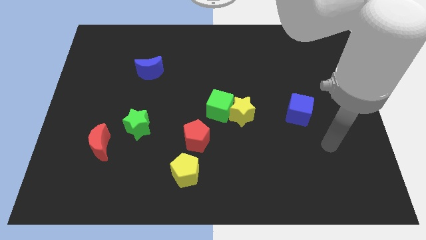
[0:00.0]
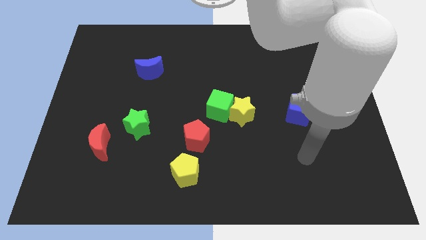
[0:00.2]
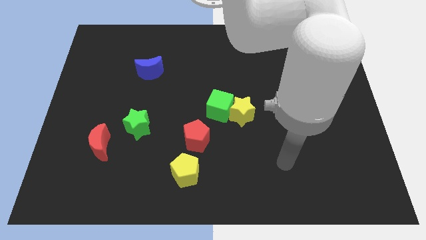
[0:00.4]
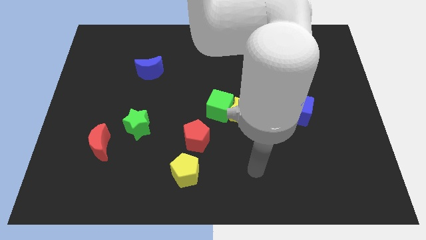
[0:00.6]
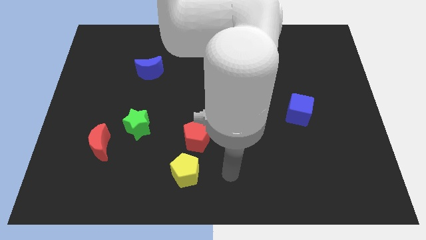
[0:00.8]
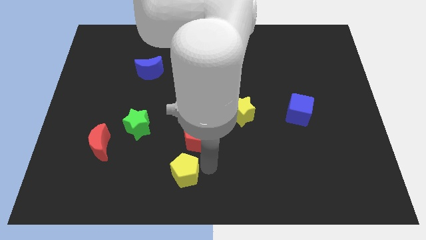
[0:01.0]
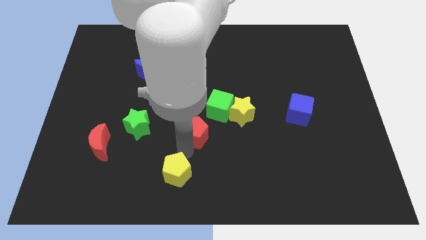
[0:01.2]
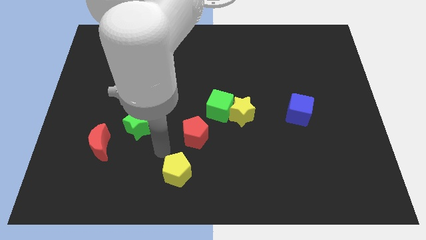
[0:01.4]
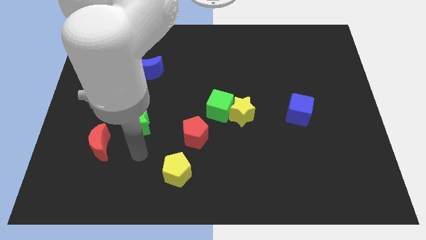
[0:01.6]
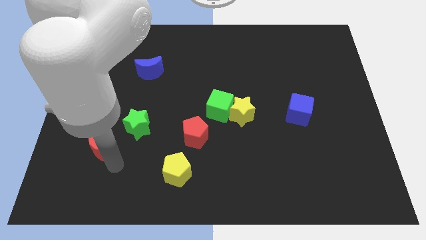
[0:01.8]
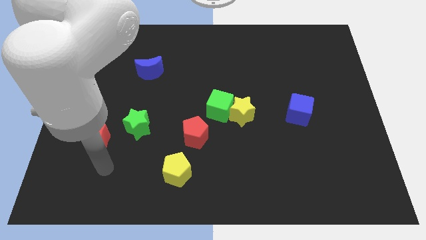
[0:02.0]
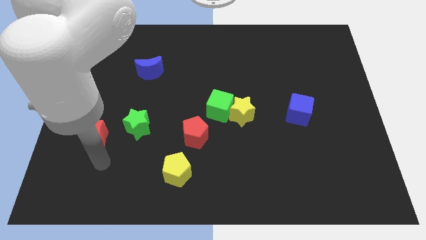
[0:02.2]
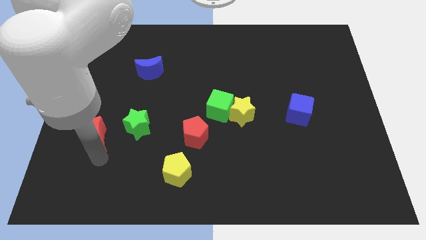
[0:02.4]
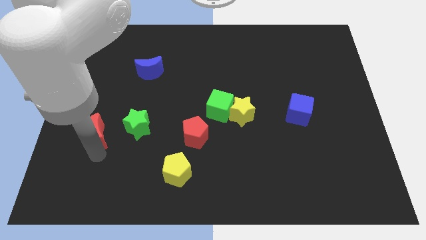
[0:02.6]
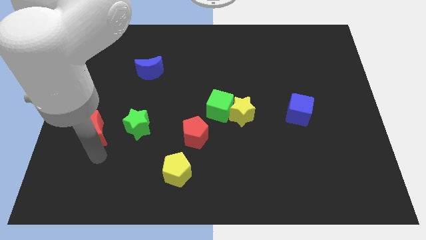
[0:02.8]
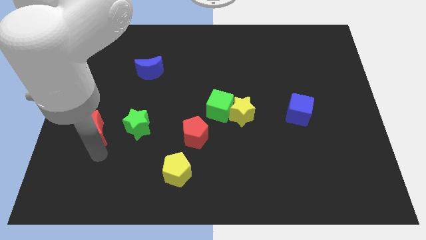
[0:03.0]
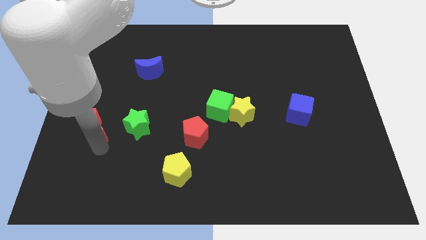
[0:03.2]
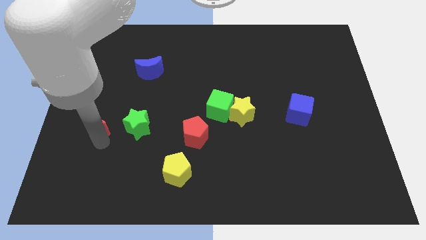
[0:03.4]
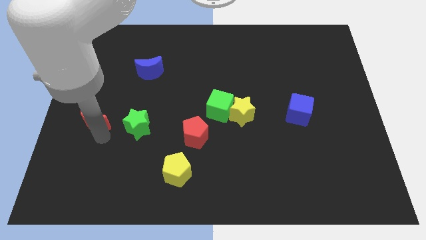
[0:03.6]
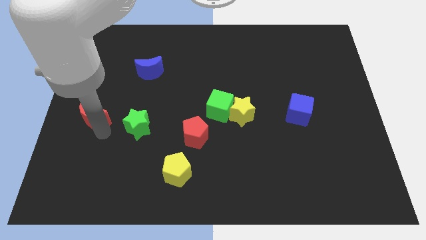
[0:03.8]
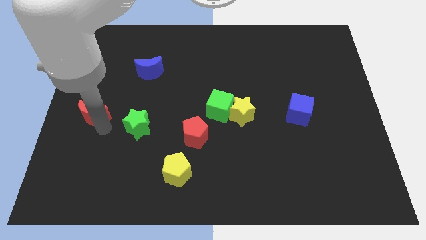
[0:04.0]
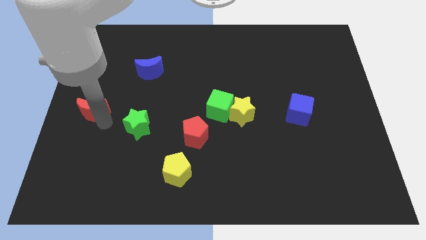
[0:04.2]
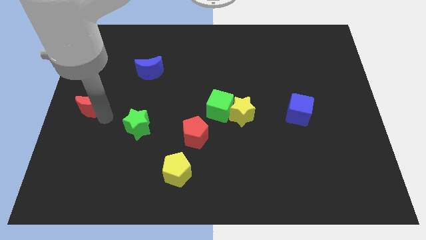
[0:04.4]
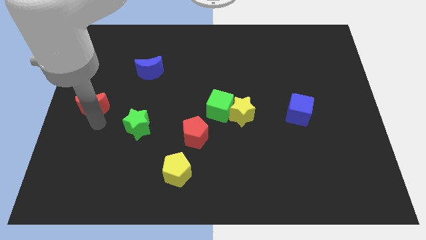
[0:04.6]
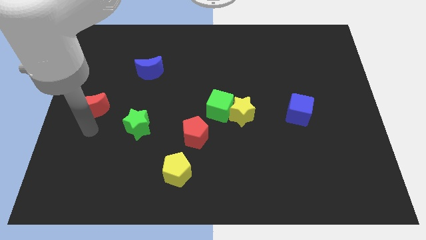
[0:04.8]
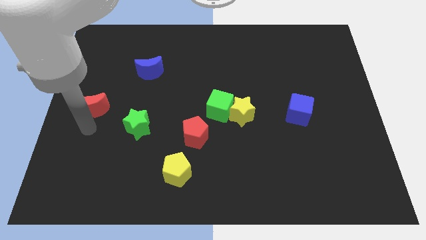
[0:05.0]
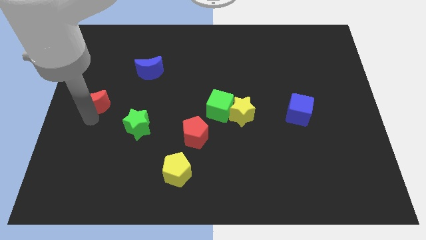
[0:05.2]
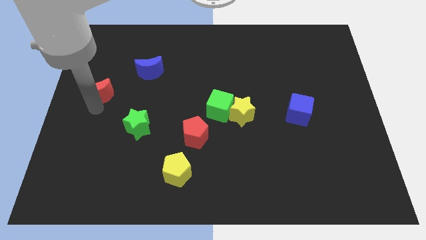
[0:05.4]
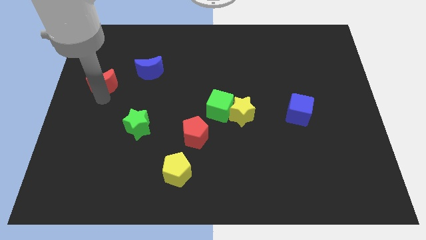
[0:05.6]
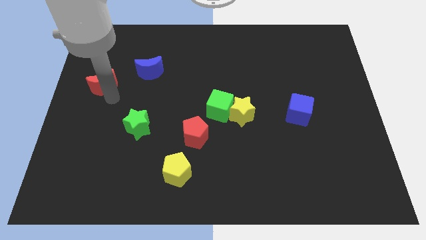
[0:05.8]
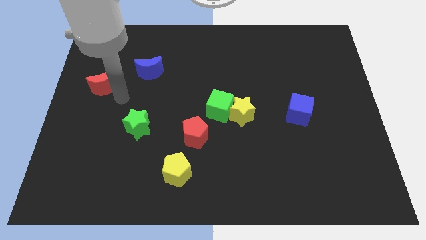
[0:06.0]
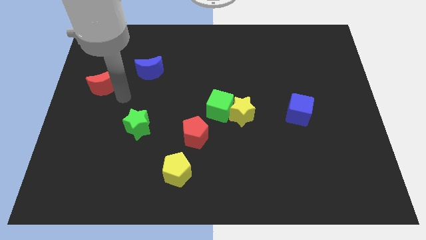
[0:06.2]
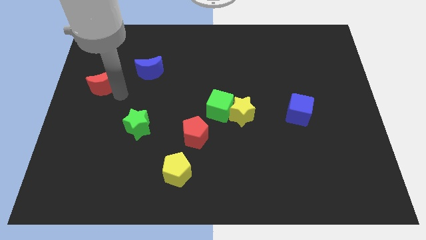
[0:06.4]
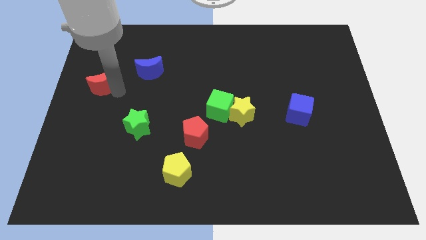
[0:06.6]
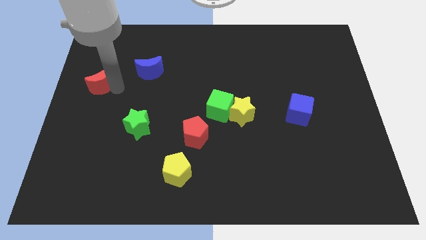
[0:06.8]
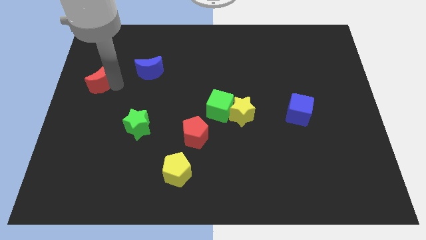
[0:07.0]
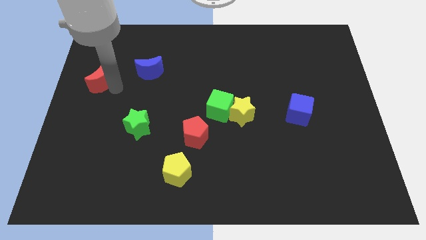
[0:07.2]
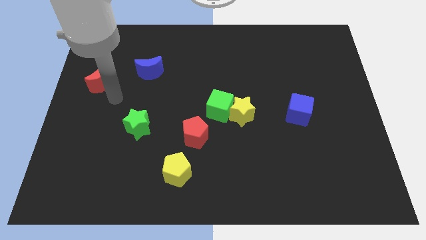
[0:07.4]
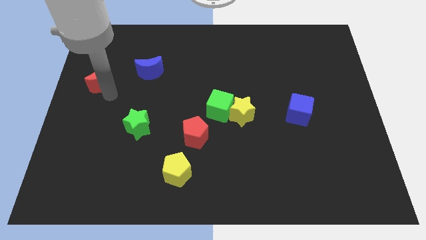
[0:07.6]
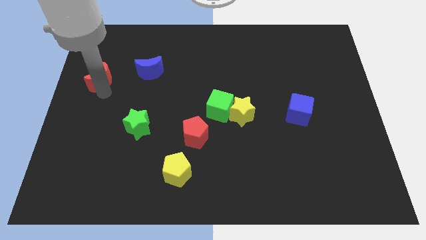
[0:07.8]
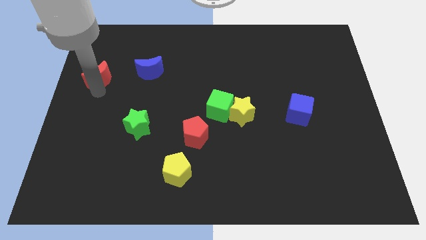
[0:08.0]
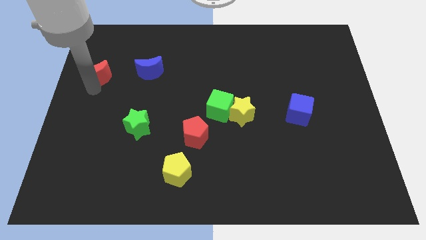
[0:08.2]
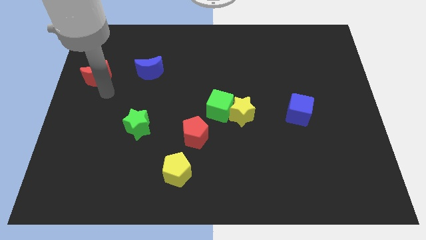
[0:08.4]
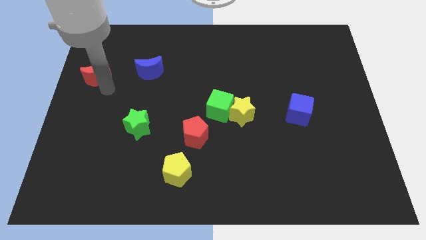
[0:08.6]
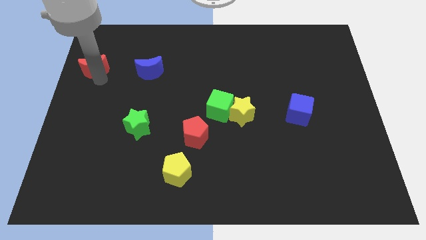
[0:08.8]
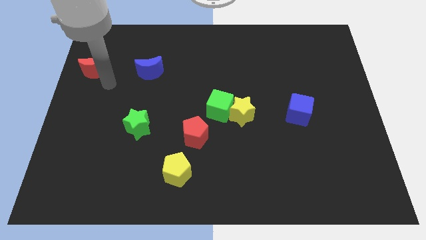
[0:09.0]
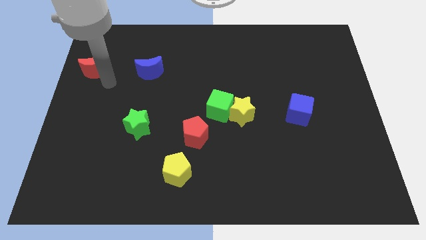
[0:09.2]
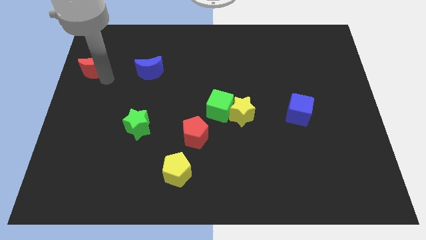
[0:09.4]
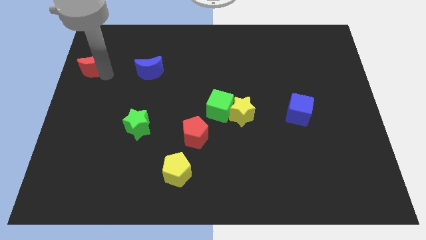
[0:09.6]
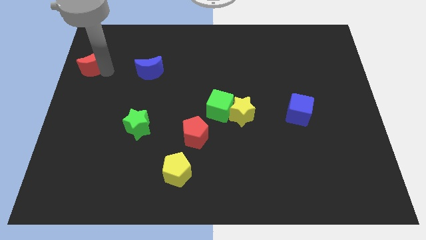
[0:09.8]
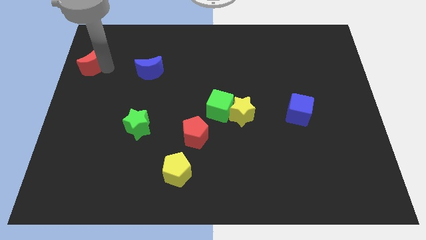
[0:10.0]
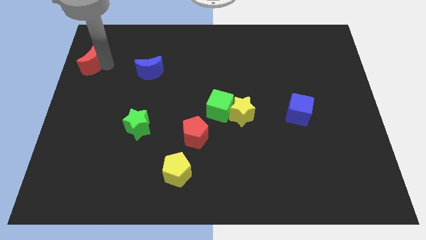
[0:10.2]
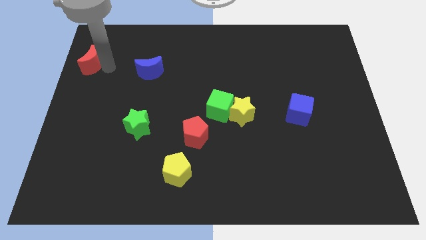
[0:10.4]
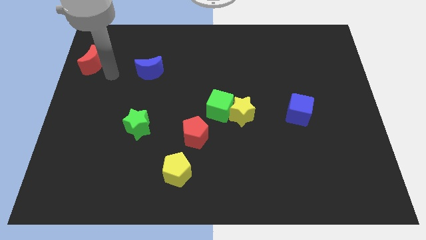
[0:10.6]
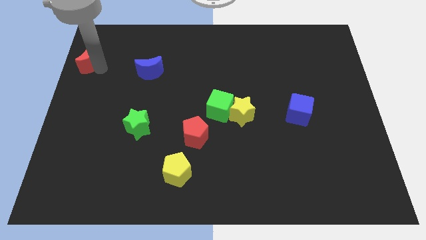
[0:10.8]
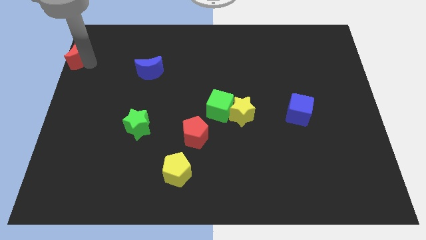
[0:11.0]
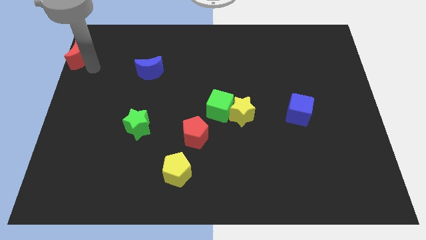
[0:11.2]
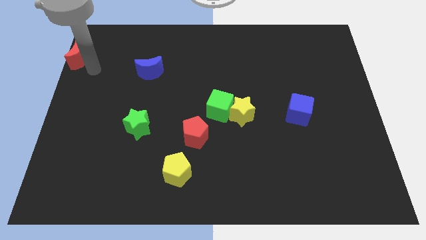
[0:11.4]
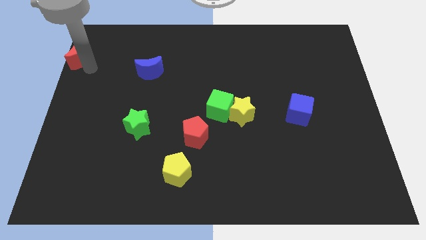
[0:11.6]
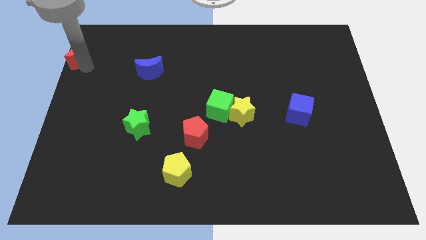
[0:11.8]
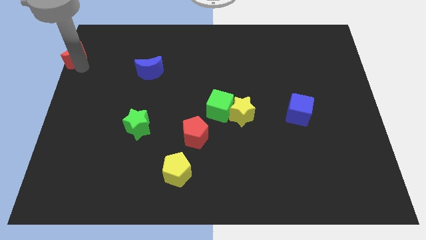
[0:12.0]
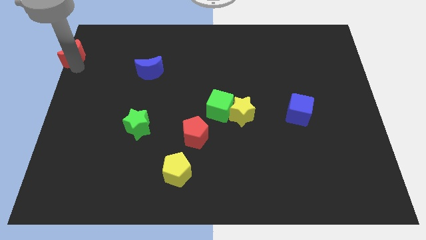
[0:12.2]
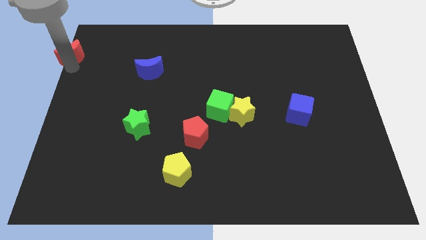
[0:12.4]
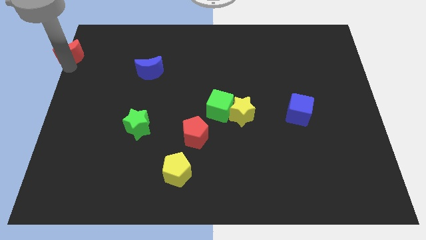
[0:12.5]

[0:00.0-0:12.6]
push the red moon to the top left of the board
